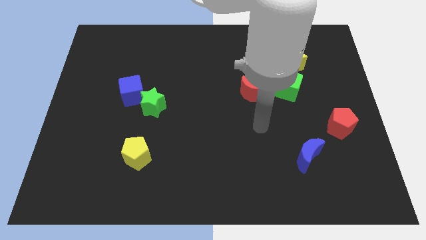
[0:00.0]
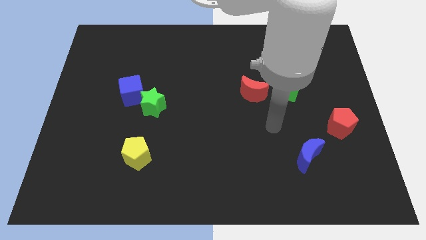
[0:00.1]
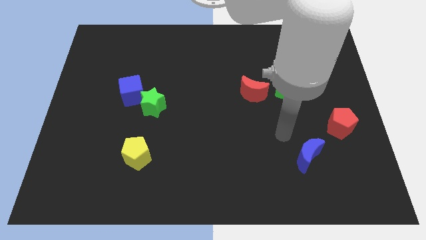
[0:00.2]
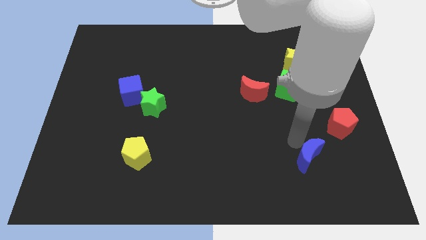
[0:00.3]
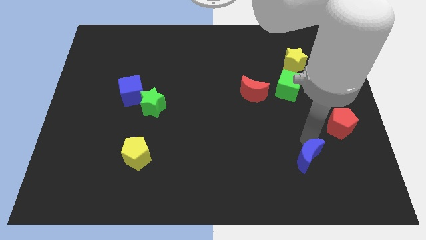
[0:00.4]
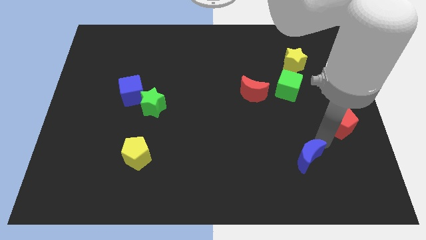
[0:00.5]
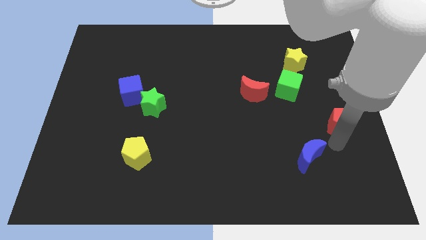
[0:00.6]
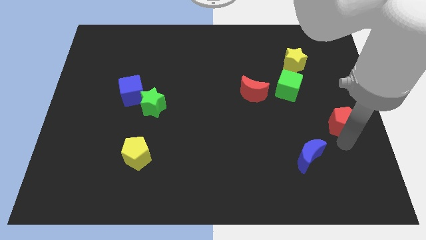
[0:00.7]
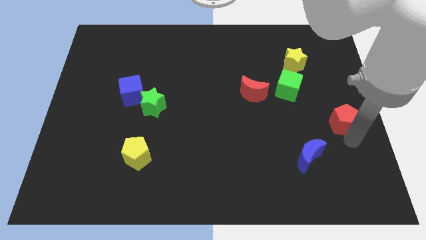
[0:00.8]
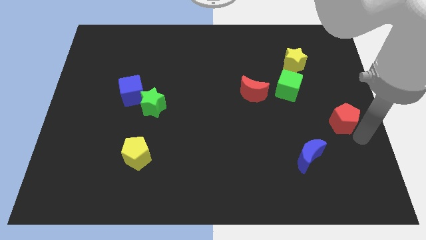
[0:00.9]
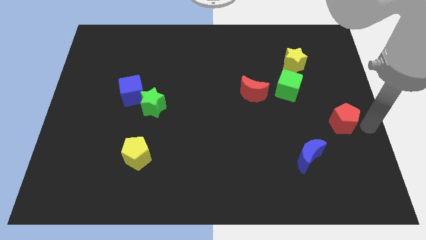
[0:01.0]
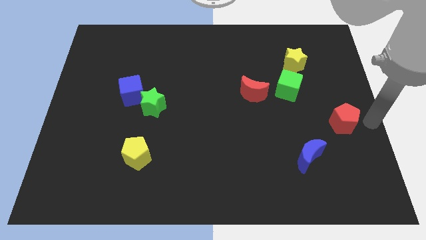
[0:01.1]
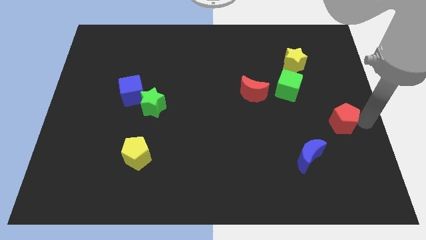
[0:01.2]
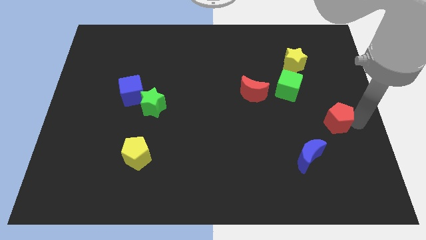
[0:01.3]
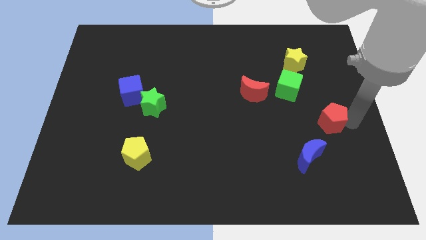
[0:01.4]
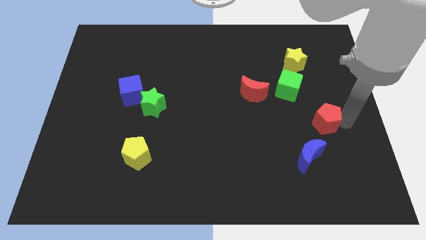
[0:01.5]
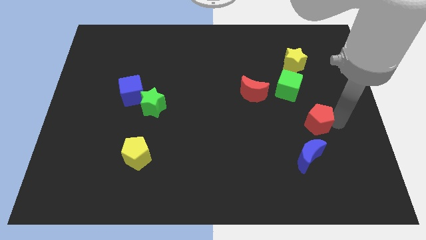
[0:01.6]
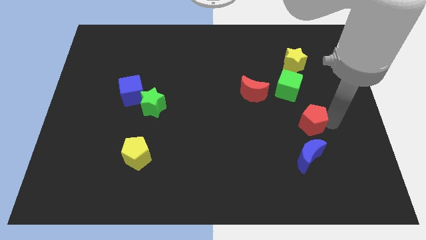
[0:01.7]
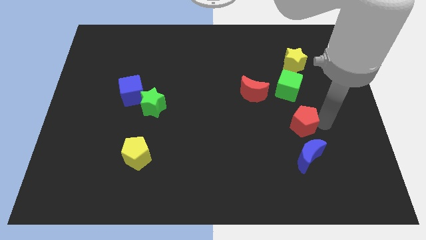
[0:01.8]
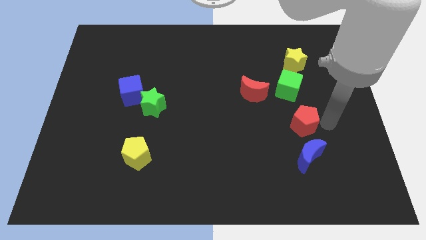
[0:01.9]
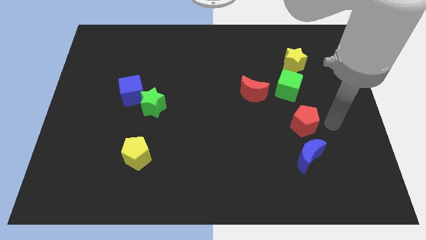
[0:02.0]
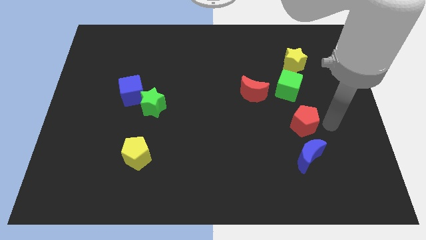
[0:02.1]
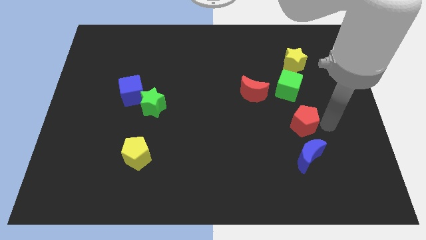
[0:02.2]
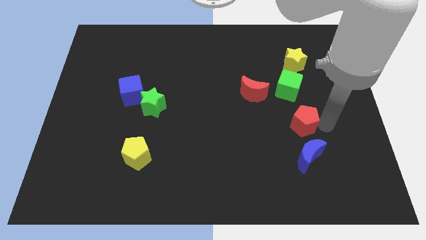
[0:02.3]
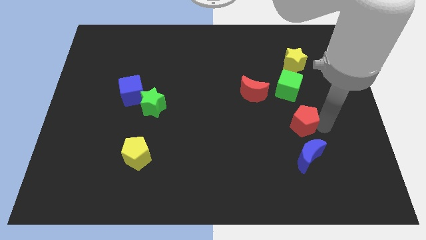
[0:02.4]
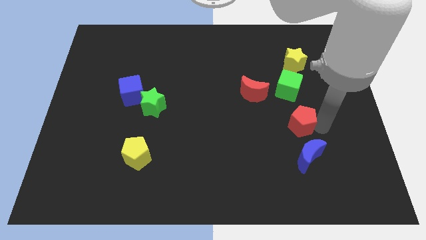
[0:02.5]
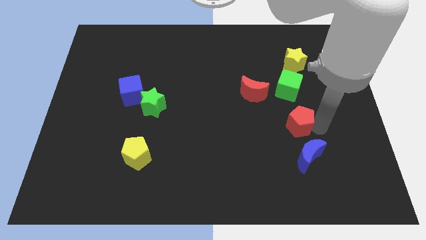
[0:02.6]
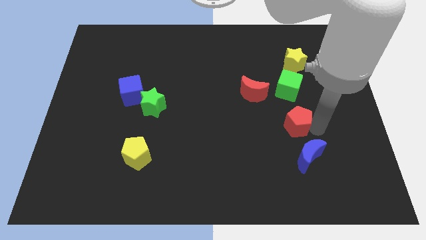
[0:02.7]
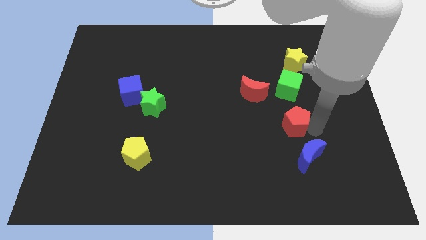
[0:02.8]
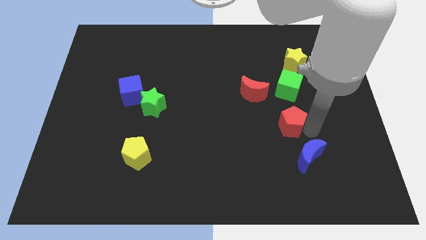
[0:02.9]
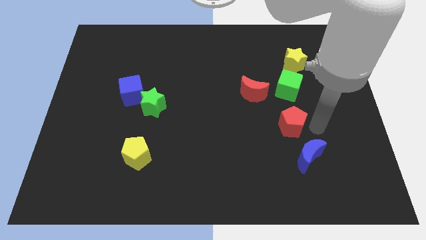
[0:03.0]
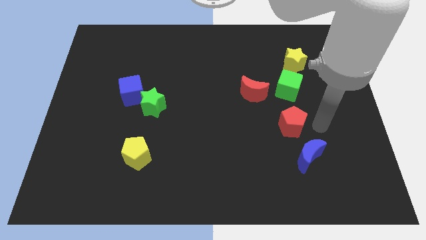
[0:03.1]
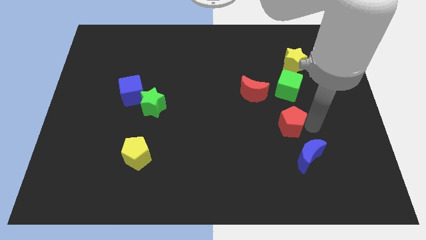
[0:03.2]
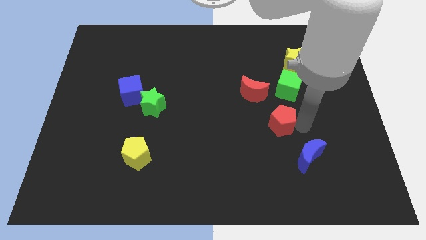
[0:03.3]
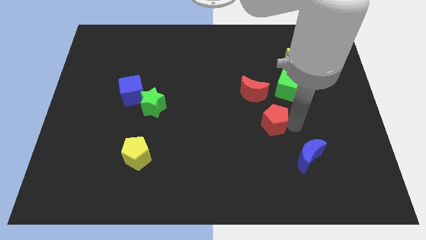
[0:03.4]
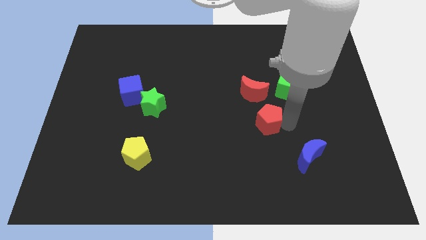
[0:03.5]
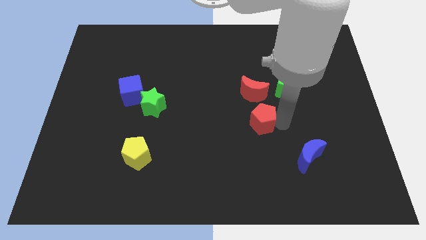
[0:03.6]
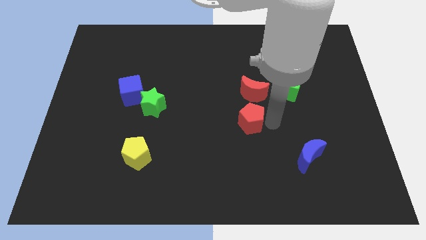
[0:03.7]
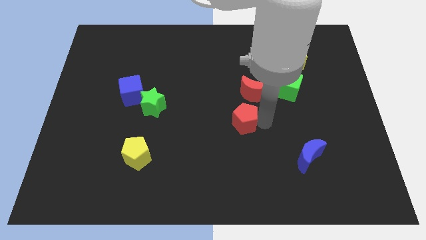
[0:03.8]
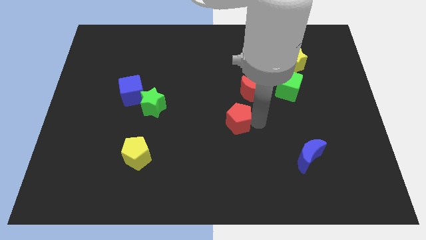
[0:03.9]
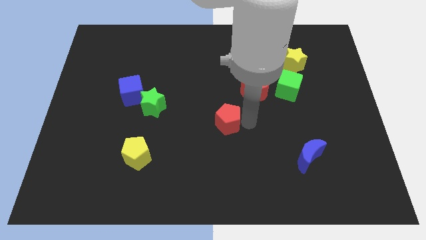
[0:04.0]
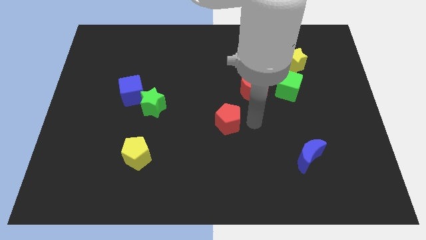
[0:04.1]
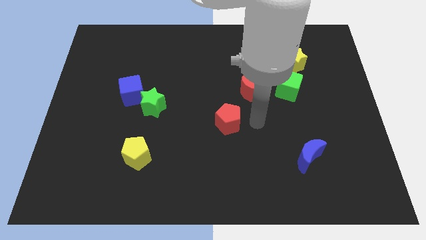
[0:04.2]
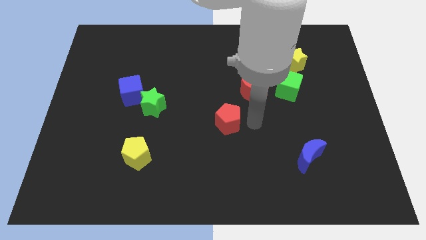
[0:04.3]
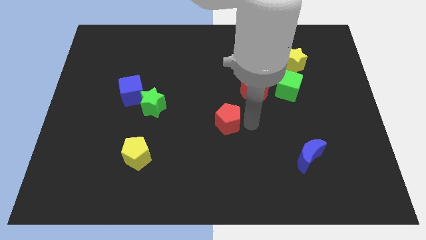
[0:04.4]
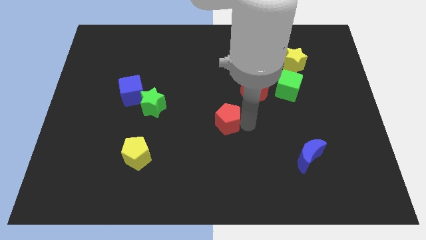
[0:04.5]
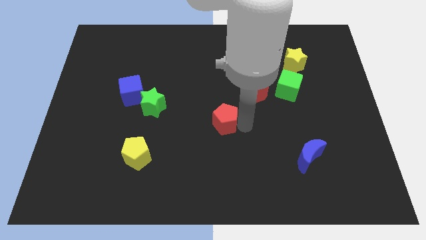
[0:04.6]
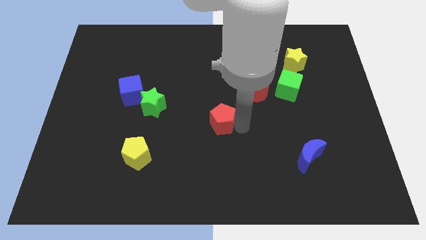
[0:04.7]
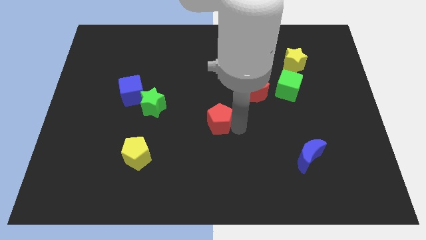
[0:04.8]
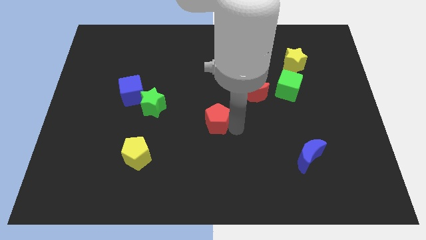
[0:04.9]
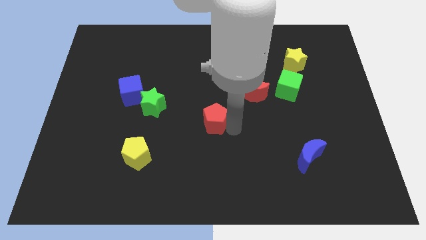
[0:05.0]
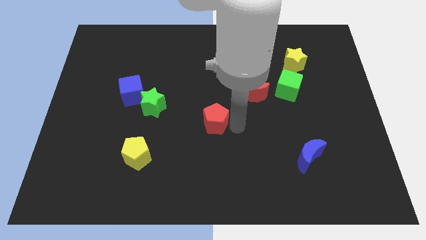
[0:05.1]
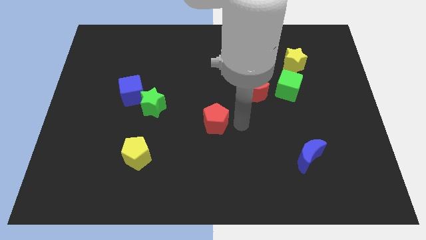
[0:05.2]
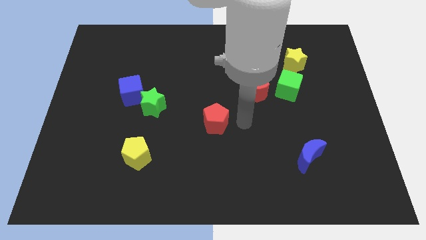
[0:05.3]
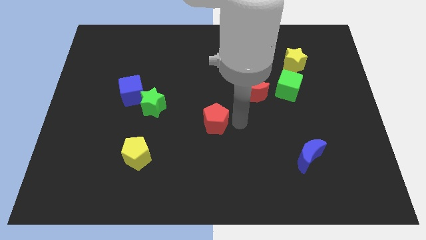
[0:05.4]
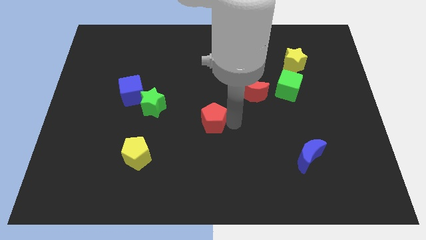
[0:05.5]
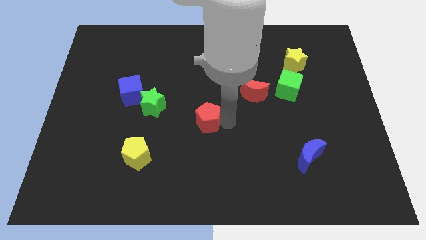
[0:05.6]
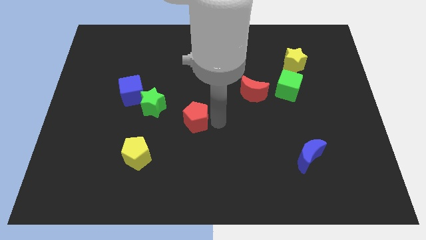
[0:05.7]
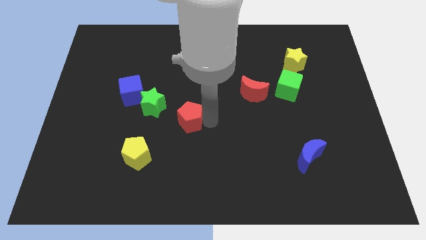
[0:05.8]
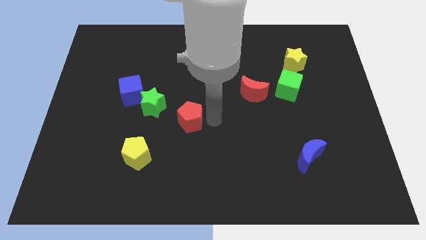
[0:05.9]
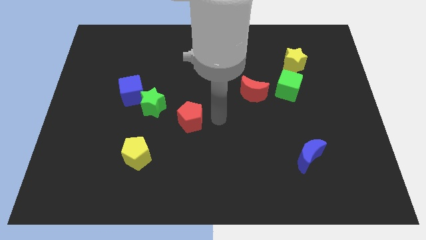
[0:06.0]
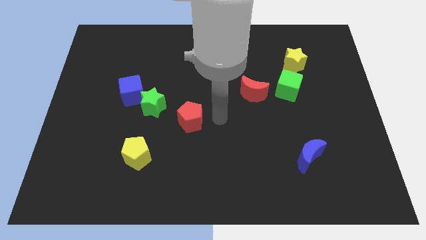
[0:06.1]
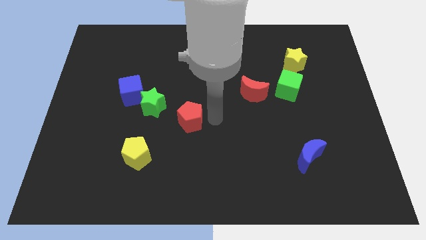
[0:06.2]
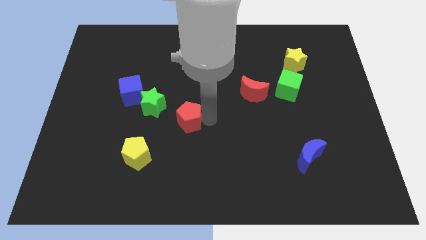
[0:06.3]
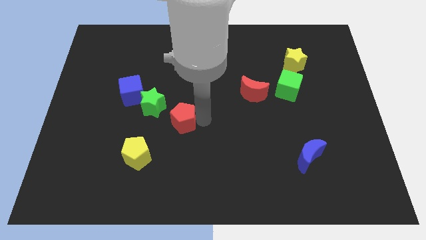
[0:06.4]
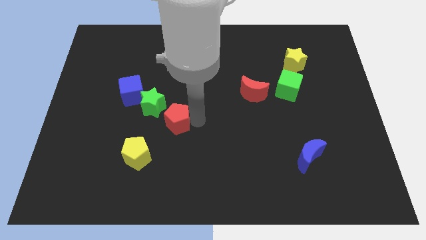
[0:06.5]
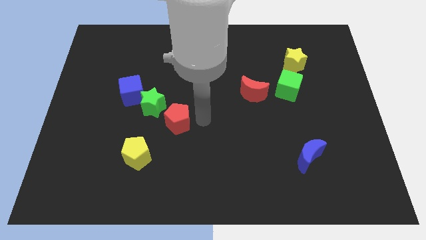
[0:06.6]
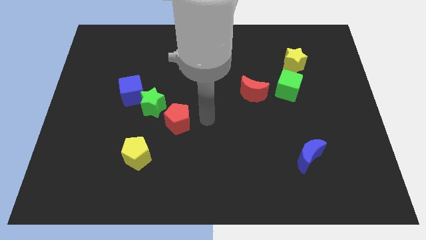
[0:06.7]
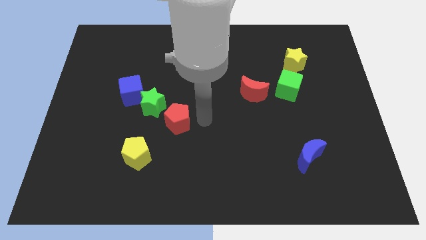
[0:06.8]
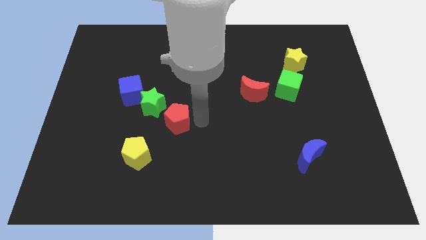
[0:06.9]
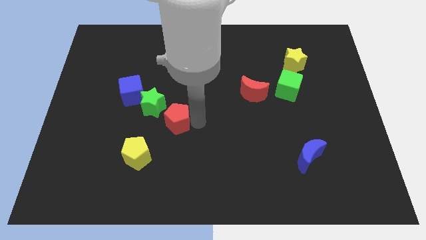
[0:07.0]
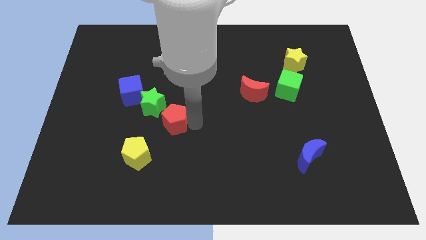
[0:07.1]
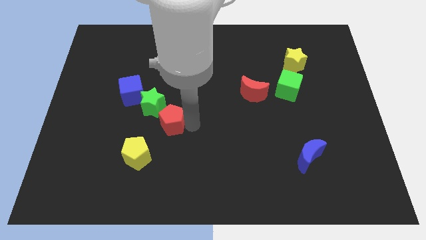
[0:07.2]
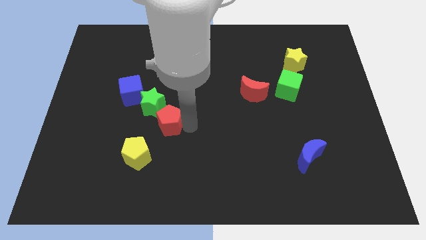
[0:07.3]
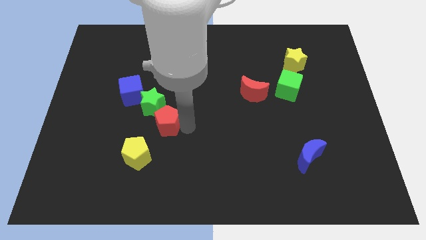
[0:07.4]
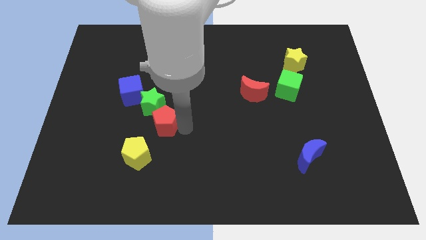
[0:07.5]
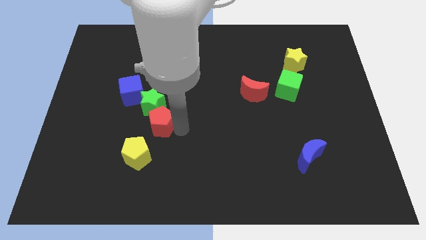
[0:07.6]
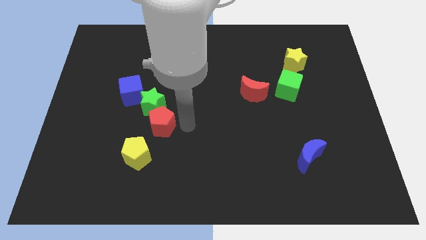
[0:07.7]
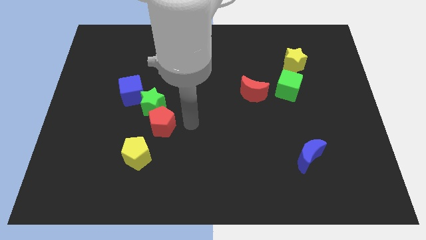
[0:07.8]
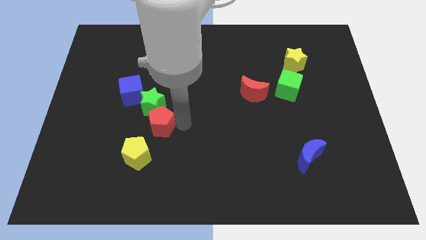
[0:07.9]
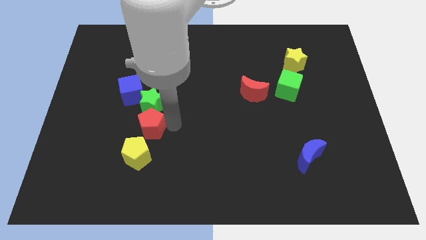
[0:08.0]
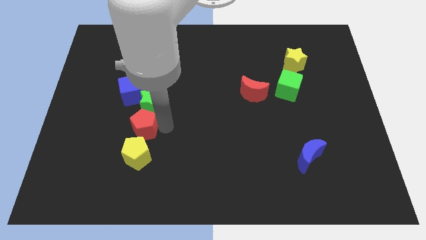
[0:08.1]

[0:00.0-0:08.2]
slide the red pentagon below the blue cube
